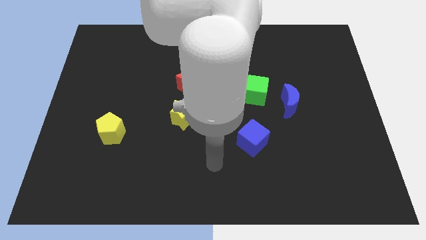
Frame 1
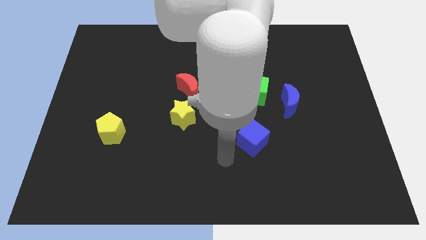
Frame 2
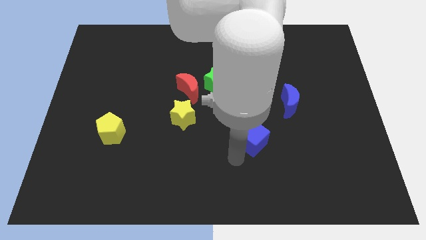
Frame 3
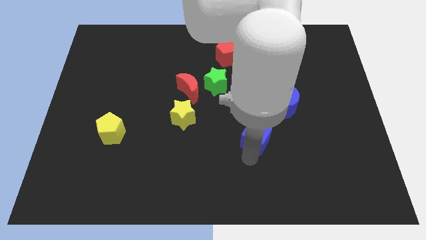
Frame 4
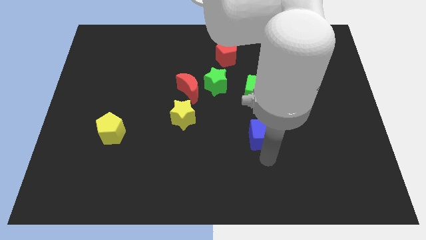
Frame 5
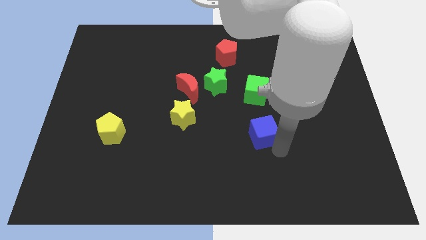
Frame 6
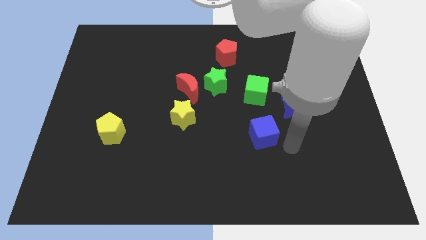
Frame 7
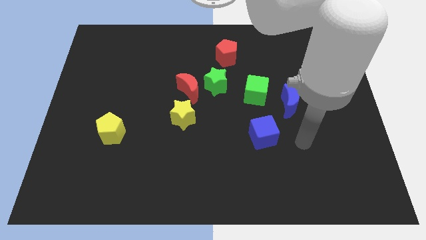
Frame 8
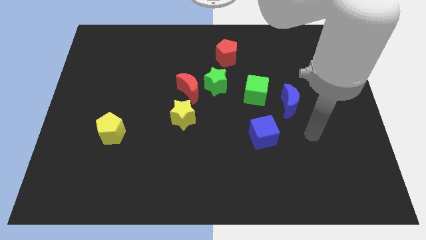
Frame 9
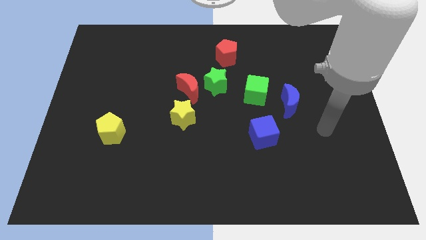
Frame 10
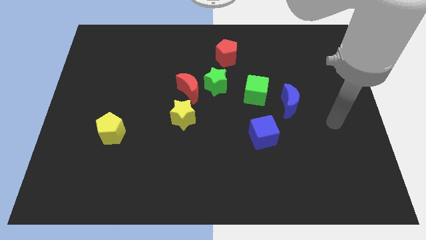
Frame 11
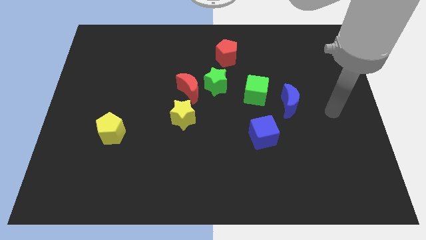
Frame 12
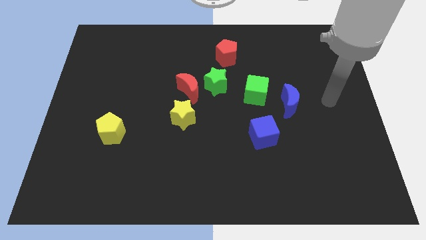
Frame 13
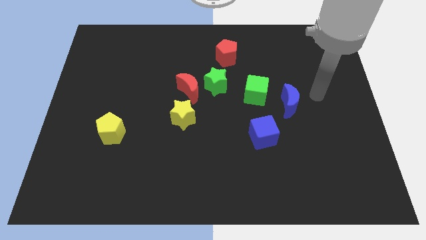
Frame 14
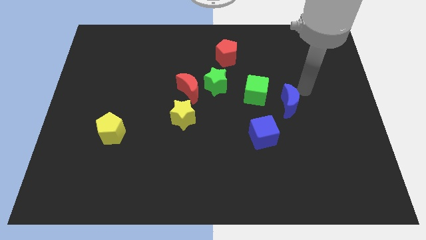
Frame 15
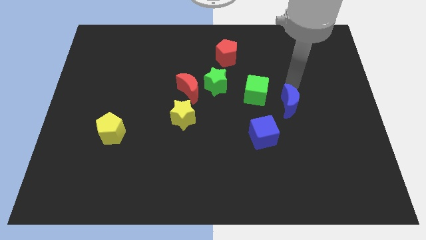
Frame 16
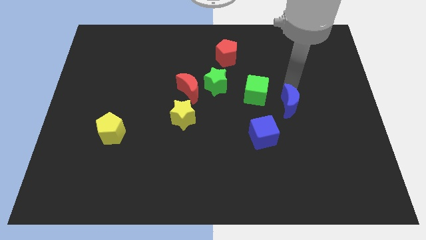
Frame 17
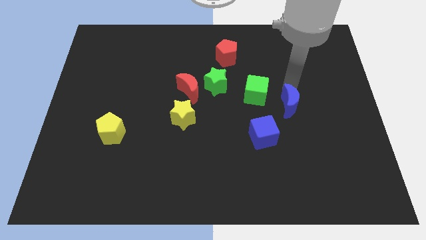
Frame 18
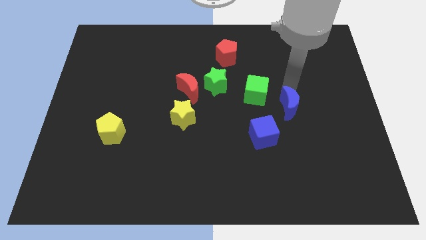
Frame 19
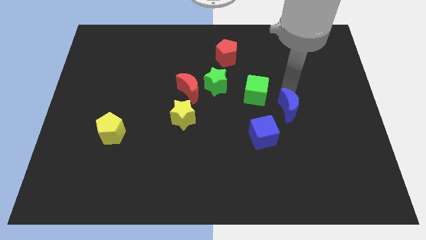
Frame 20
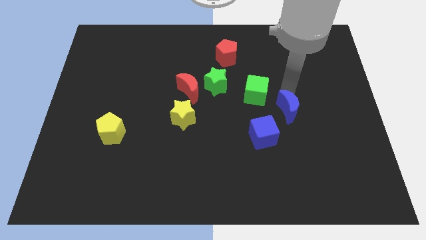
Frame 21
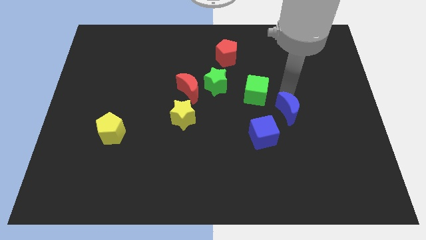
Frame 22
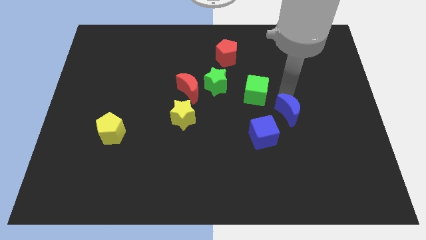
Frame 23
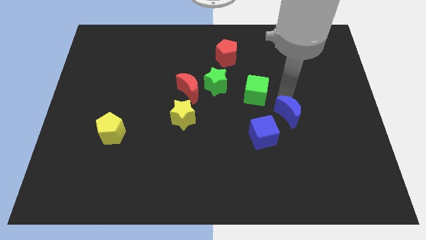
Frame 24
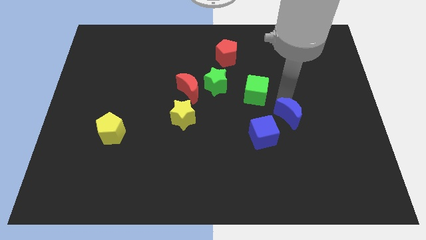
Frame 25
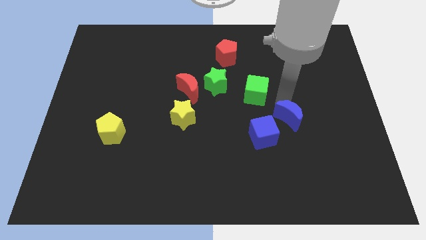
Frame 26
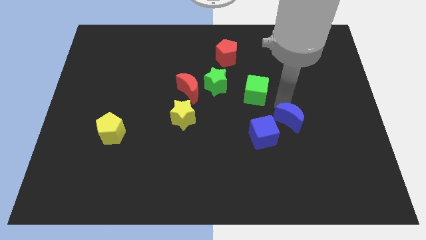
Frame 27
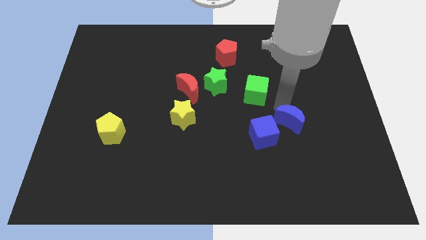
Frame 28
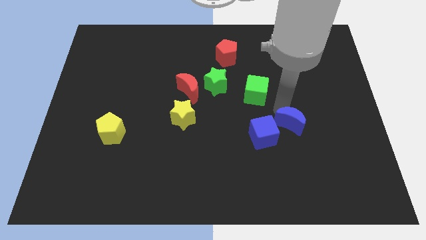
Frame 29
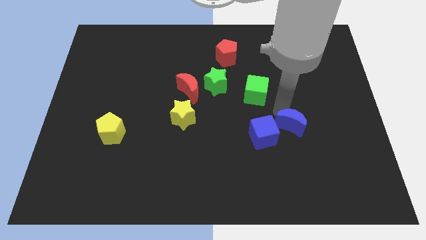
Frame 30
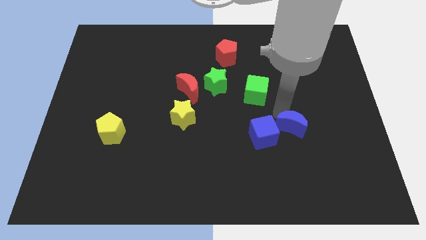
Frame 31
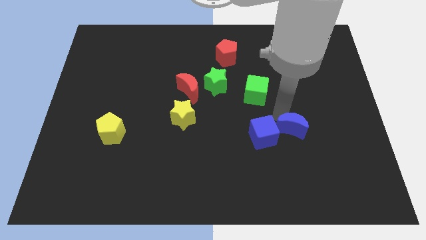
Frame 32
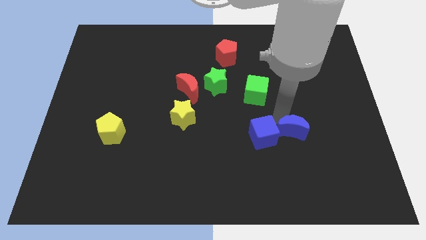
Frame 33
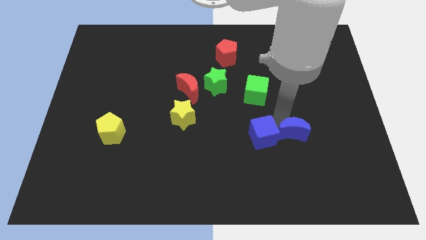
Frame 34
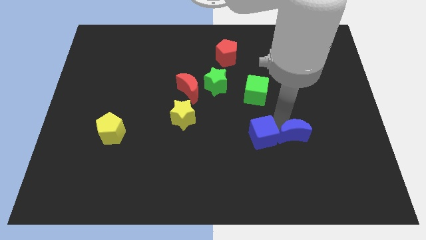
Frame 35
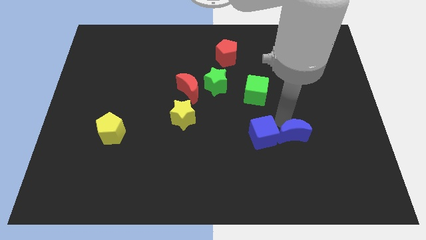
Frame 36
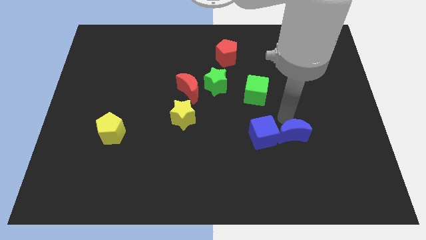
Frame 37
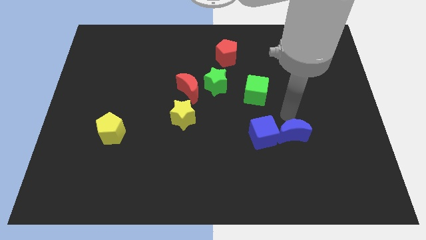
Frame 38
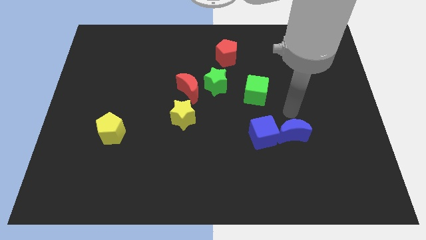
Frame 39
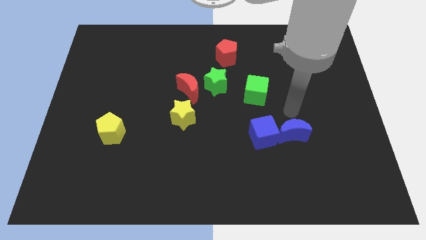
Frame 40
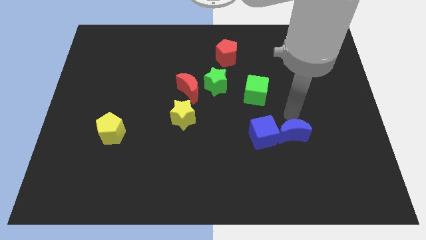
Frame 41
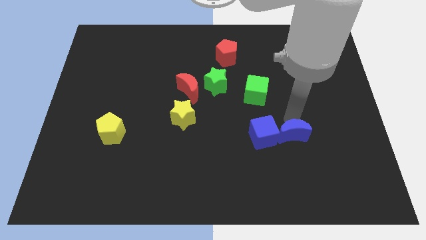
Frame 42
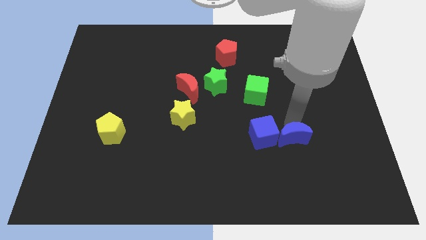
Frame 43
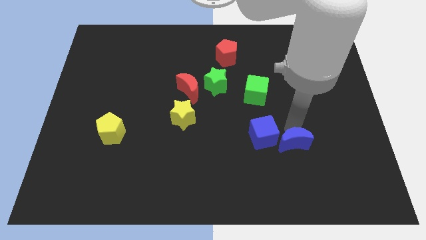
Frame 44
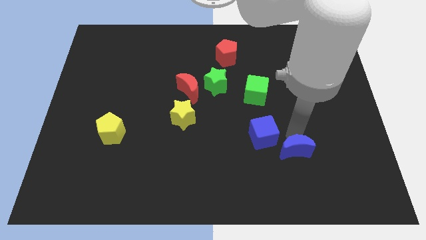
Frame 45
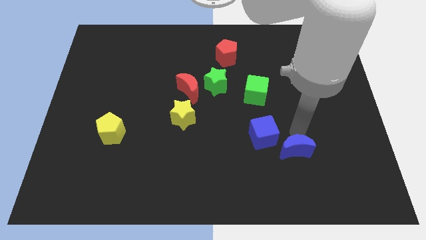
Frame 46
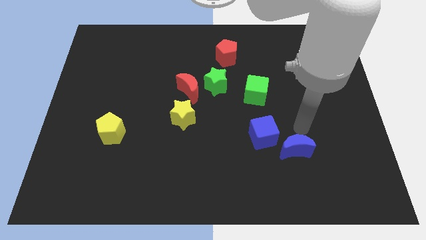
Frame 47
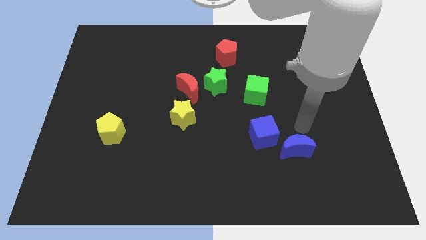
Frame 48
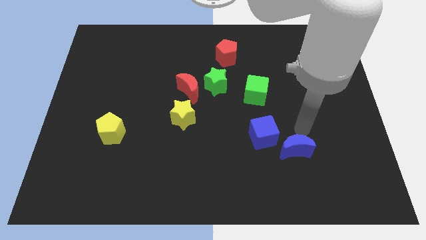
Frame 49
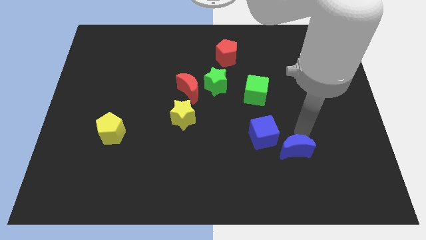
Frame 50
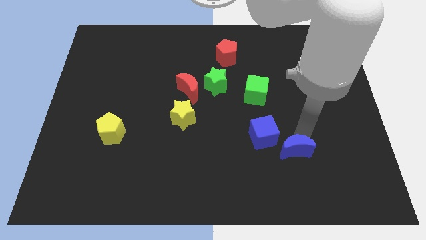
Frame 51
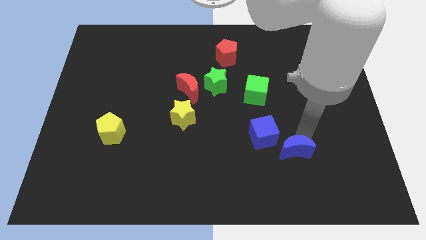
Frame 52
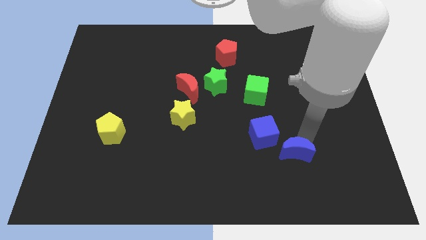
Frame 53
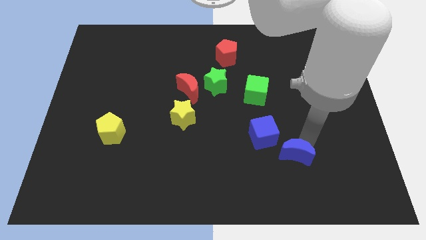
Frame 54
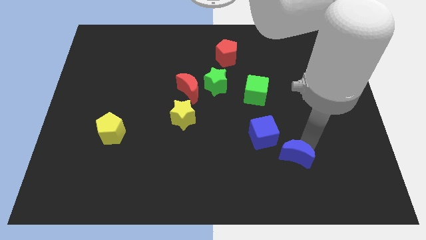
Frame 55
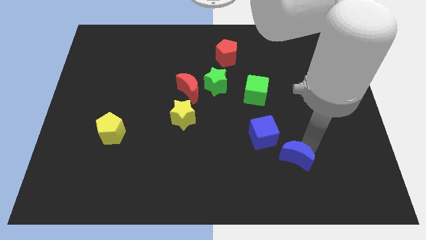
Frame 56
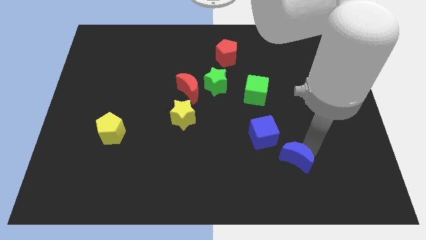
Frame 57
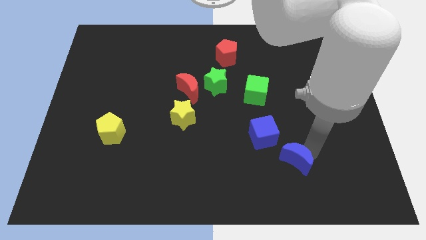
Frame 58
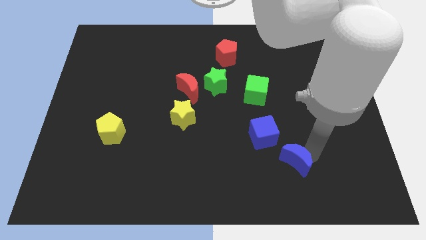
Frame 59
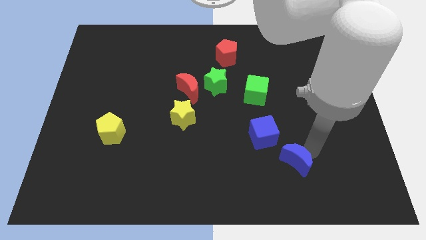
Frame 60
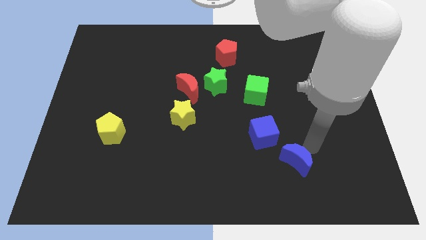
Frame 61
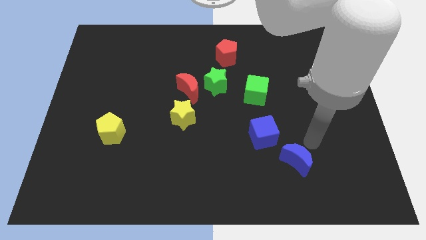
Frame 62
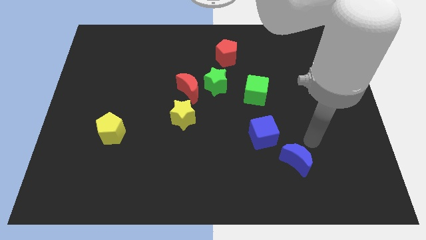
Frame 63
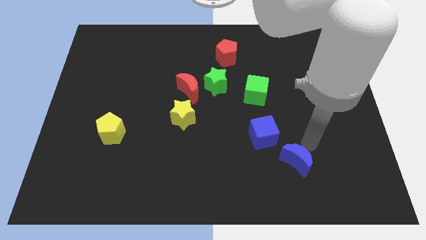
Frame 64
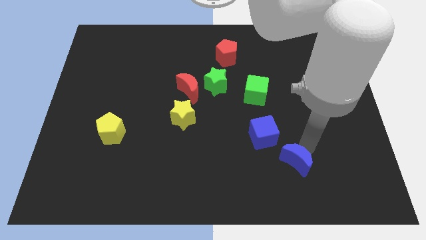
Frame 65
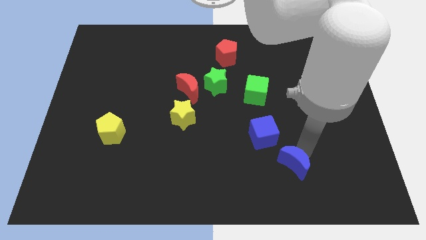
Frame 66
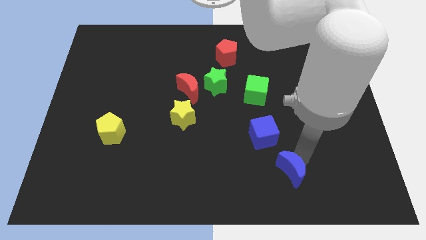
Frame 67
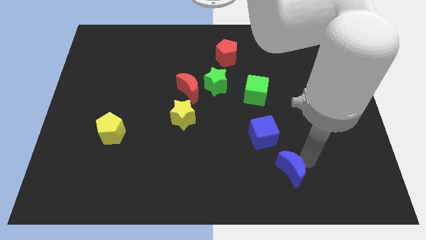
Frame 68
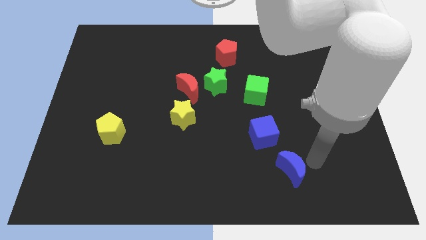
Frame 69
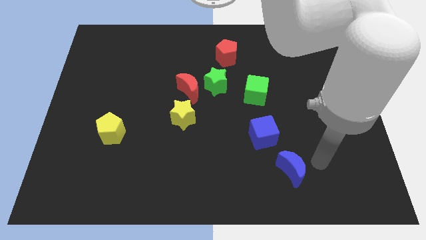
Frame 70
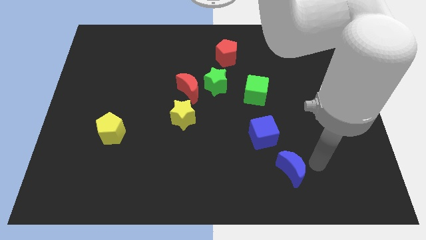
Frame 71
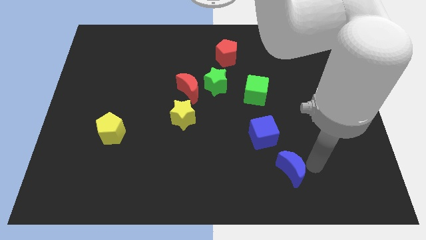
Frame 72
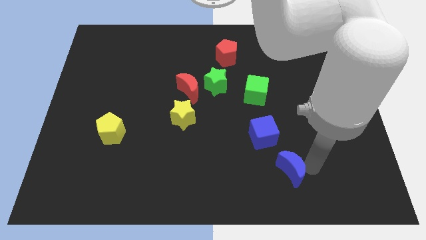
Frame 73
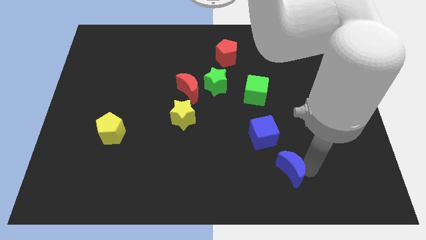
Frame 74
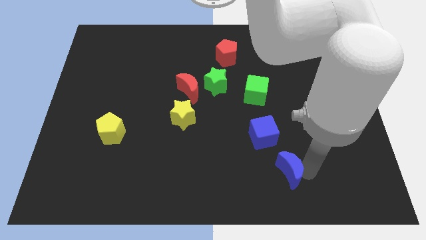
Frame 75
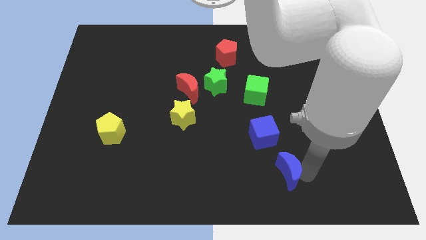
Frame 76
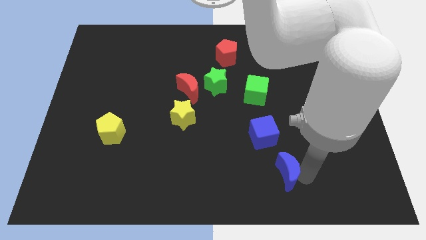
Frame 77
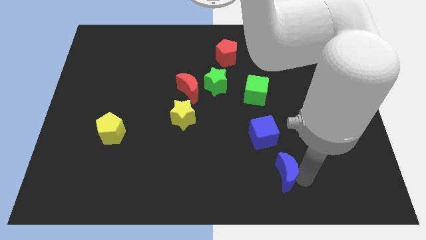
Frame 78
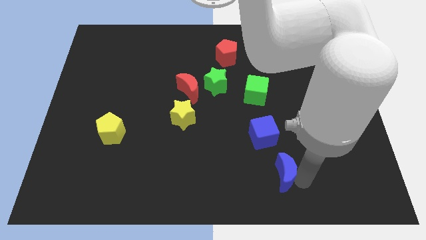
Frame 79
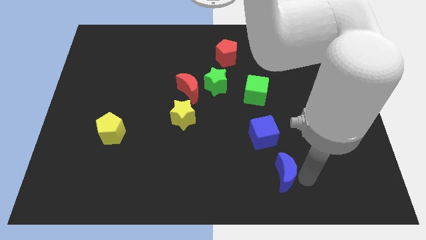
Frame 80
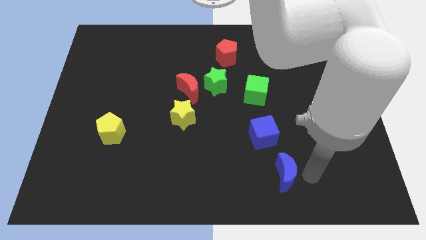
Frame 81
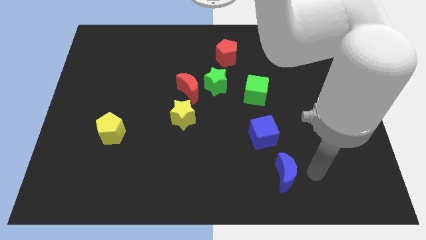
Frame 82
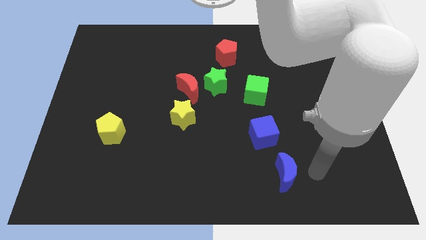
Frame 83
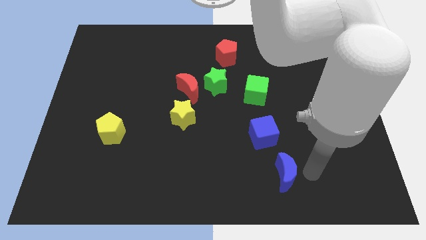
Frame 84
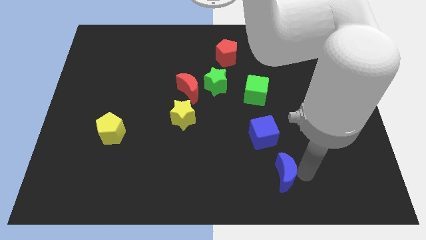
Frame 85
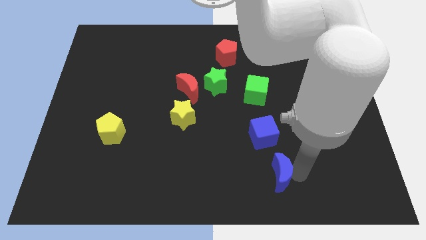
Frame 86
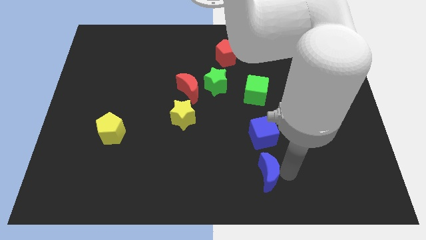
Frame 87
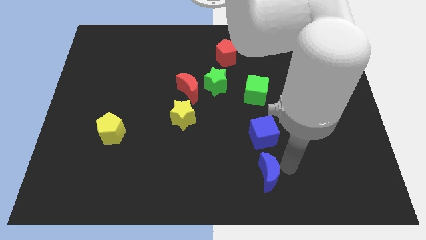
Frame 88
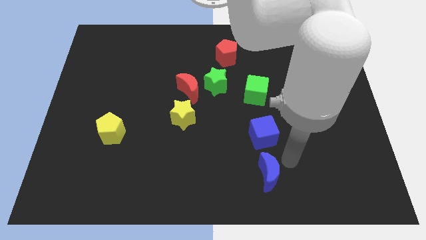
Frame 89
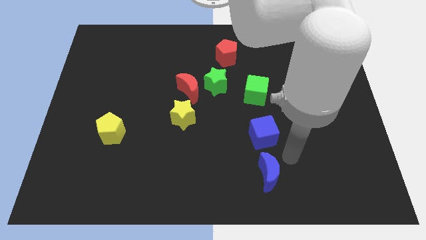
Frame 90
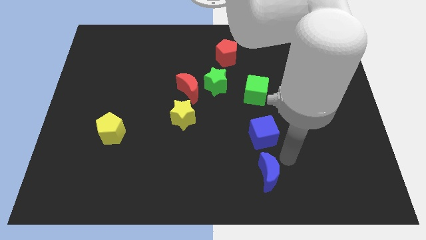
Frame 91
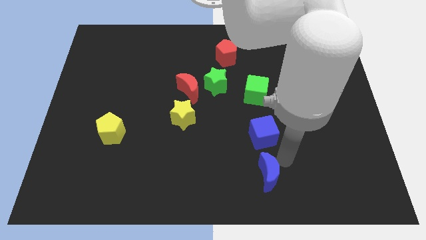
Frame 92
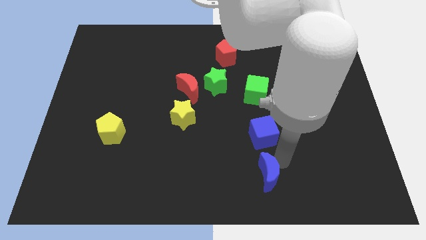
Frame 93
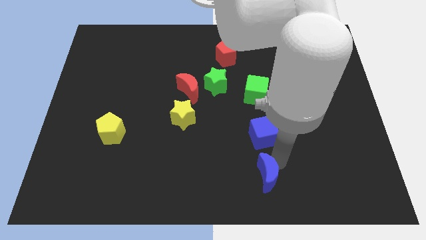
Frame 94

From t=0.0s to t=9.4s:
put the blue moon to the bottom side
